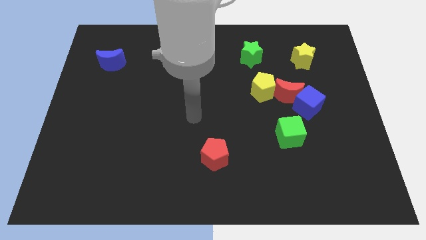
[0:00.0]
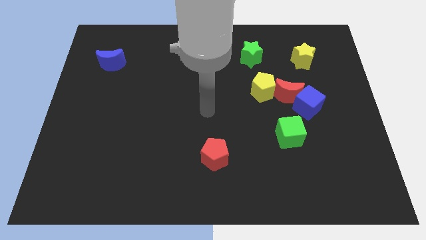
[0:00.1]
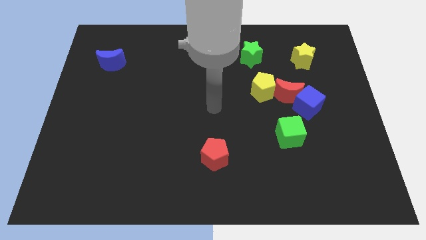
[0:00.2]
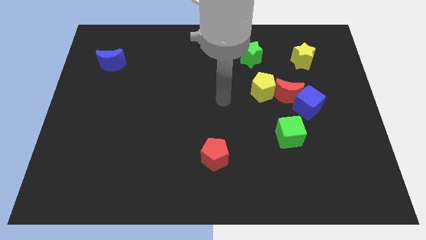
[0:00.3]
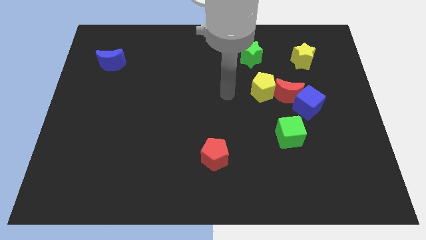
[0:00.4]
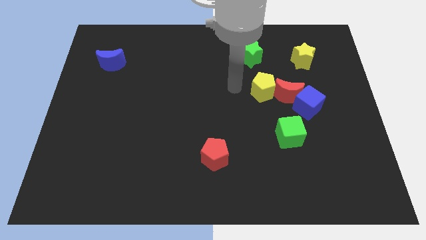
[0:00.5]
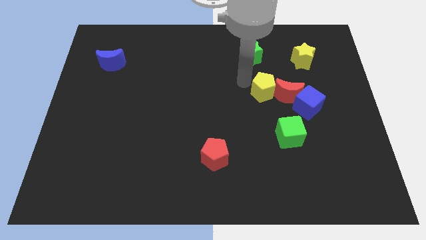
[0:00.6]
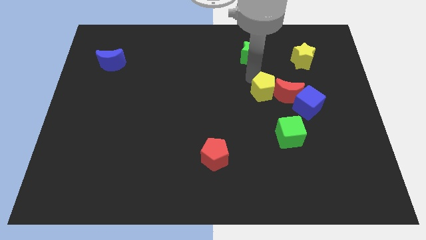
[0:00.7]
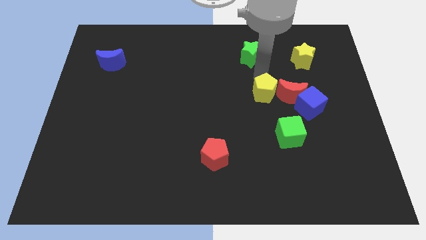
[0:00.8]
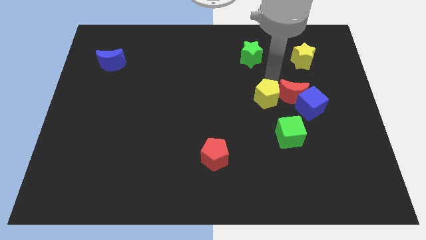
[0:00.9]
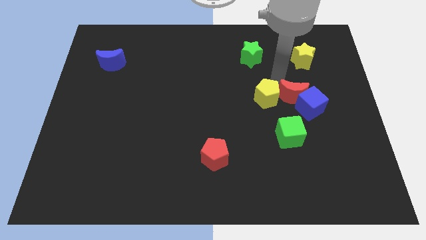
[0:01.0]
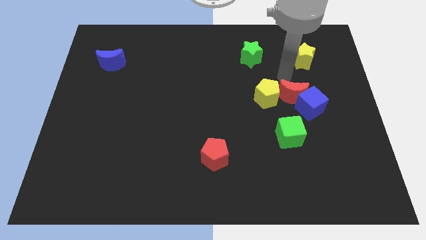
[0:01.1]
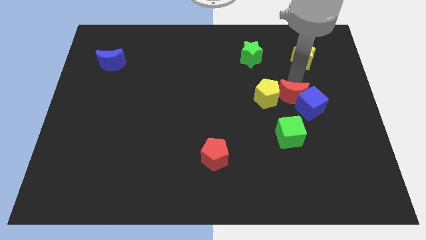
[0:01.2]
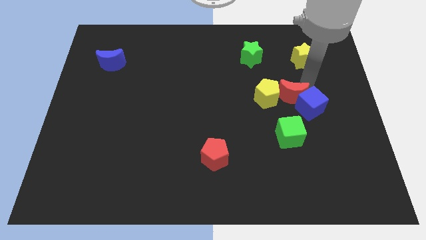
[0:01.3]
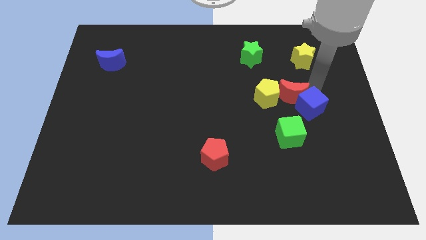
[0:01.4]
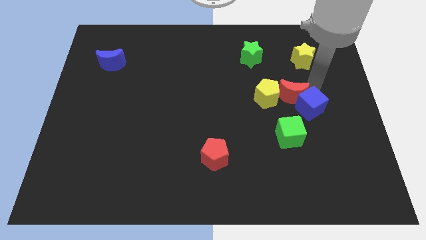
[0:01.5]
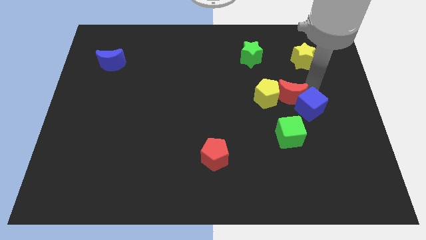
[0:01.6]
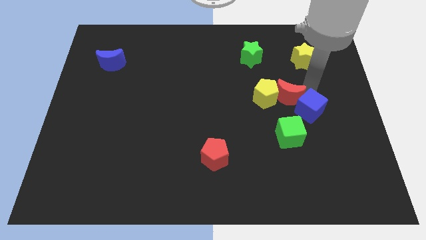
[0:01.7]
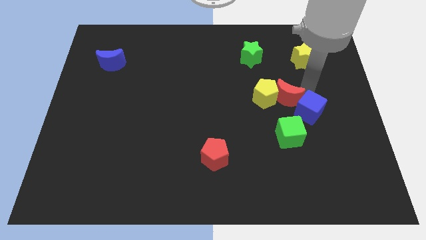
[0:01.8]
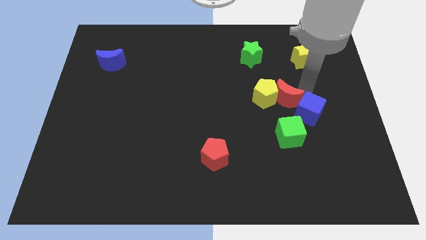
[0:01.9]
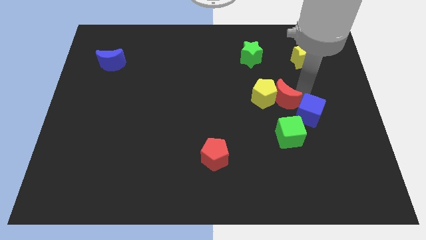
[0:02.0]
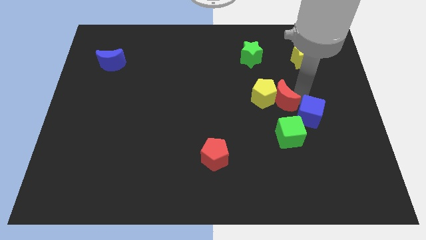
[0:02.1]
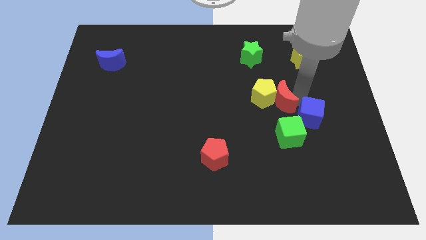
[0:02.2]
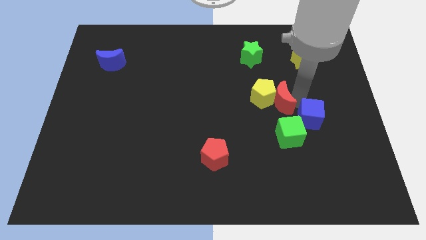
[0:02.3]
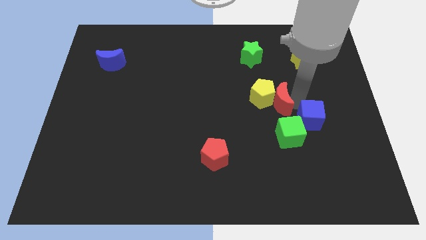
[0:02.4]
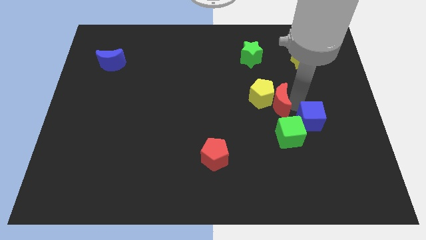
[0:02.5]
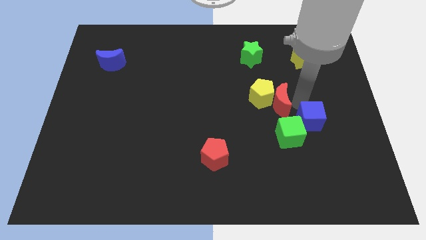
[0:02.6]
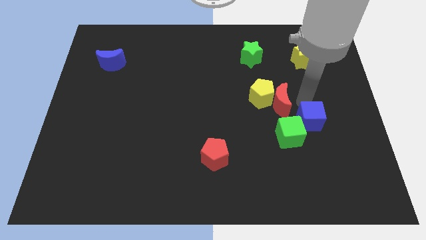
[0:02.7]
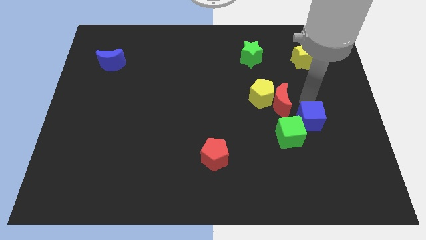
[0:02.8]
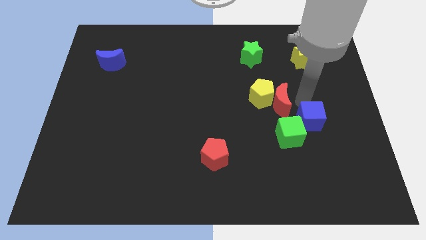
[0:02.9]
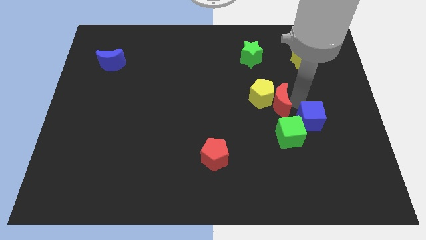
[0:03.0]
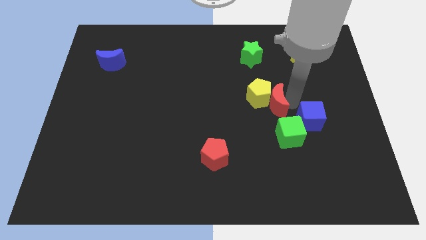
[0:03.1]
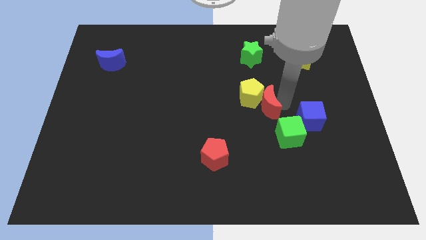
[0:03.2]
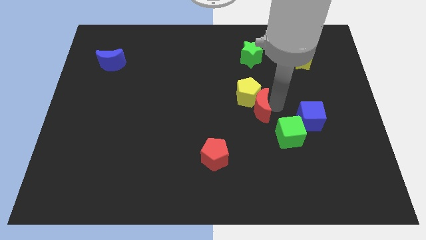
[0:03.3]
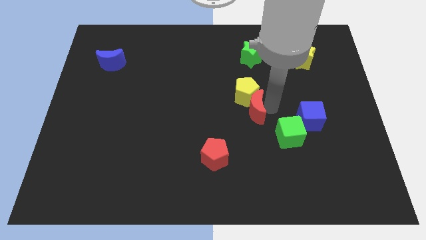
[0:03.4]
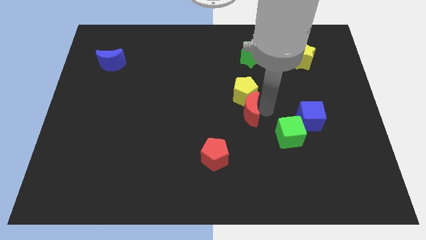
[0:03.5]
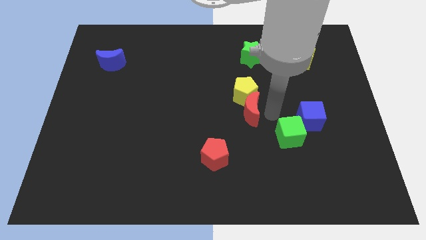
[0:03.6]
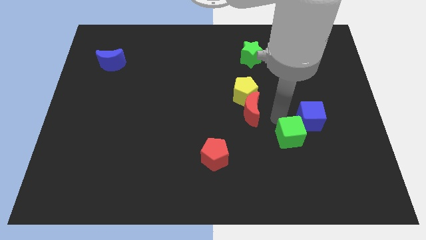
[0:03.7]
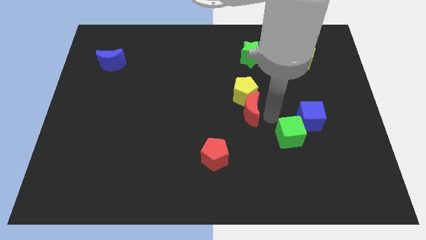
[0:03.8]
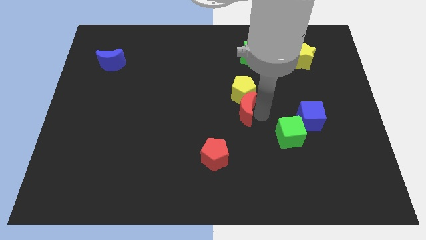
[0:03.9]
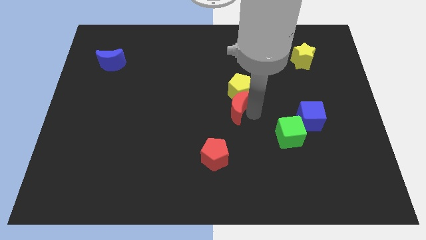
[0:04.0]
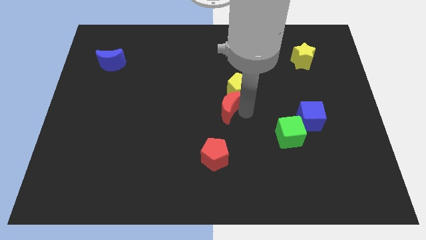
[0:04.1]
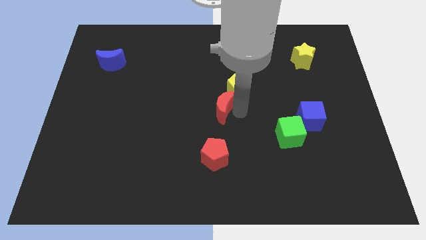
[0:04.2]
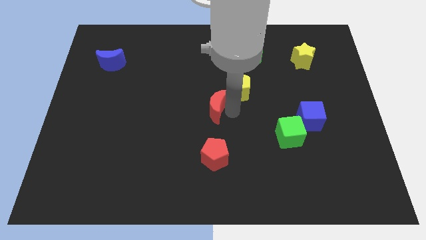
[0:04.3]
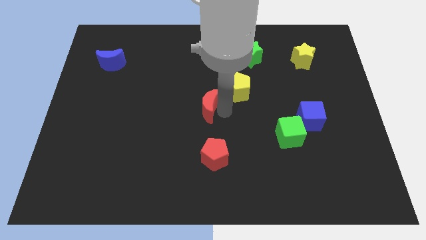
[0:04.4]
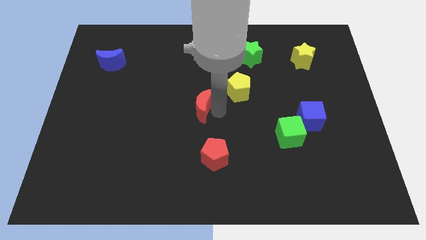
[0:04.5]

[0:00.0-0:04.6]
slide the red moon left

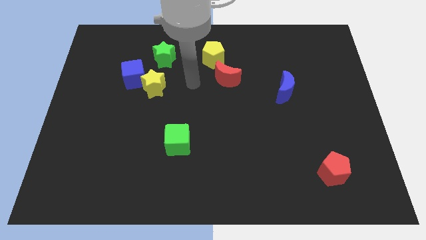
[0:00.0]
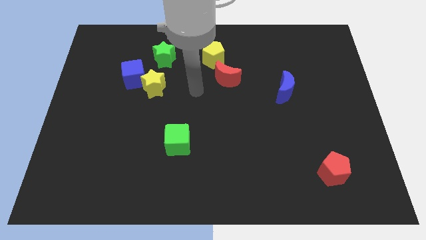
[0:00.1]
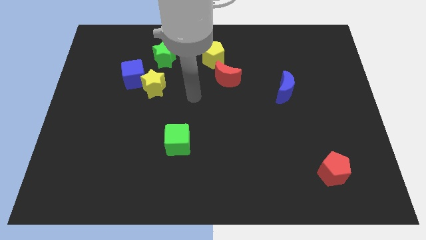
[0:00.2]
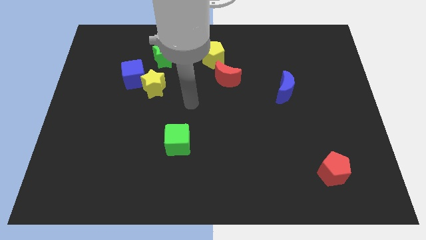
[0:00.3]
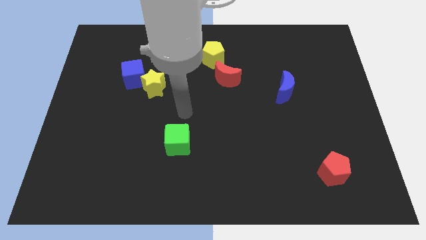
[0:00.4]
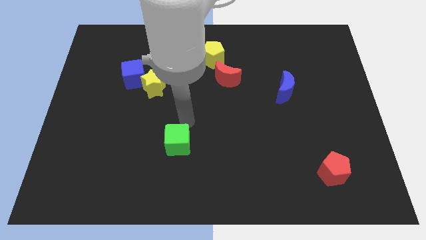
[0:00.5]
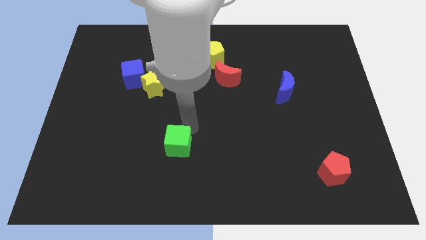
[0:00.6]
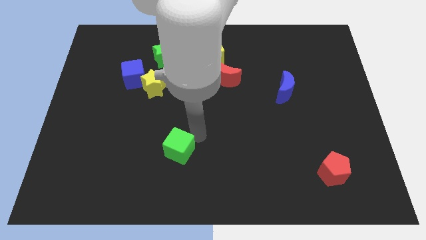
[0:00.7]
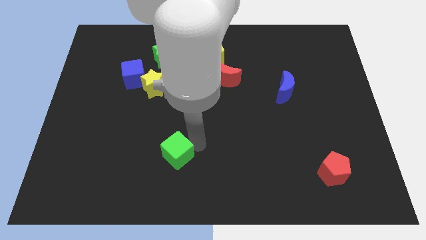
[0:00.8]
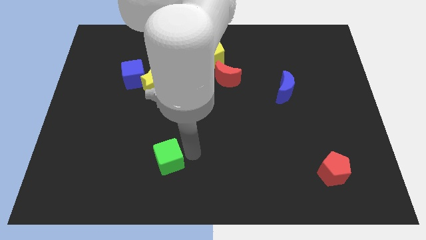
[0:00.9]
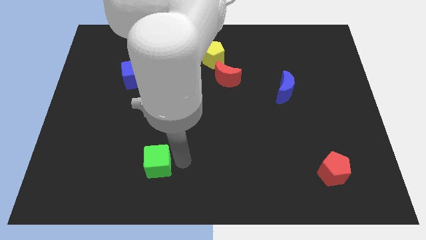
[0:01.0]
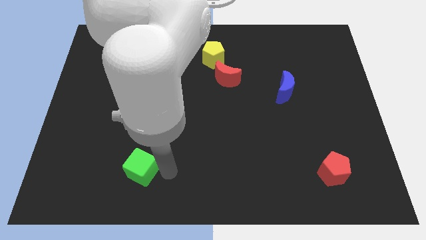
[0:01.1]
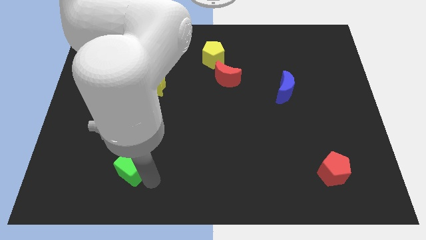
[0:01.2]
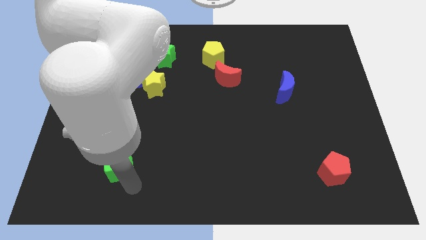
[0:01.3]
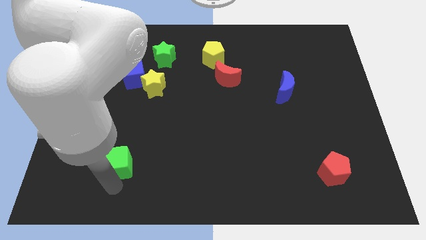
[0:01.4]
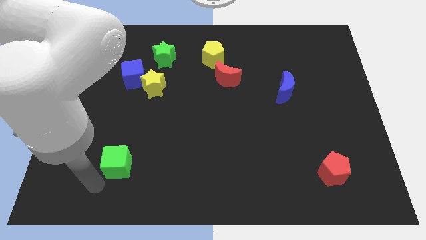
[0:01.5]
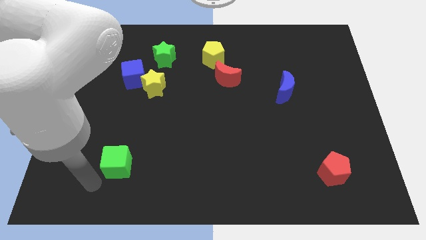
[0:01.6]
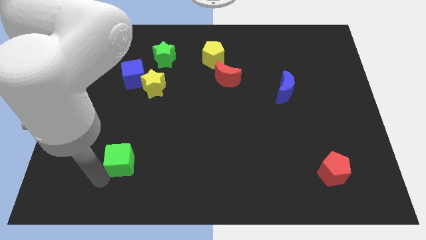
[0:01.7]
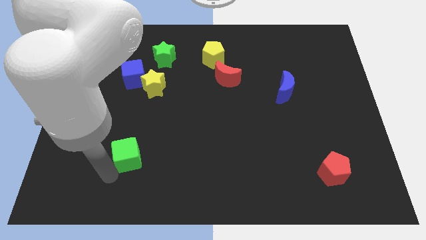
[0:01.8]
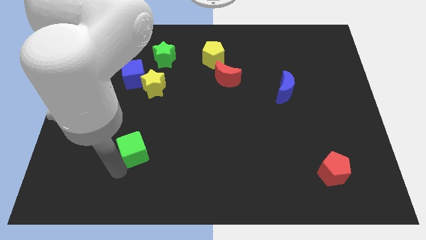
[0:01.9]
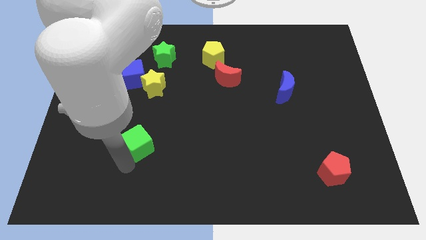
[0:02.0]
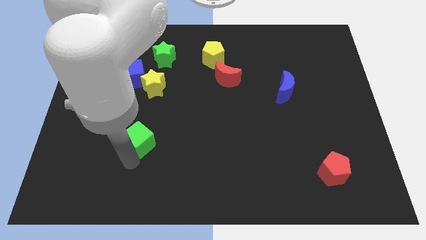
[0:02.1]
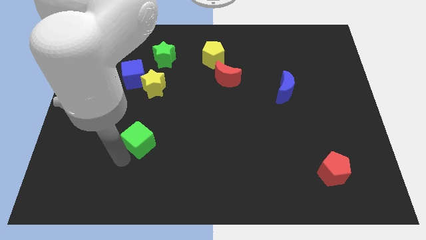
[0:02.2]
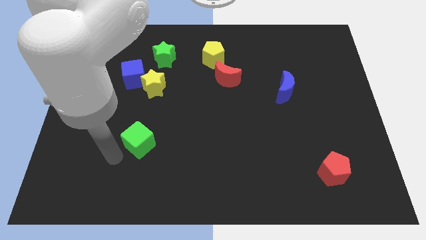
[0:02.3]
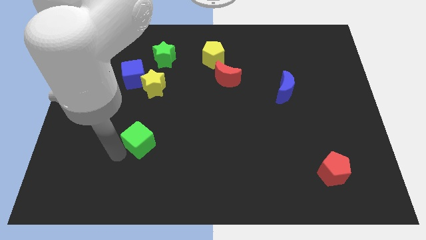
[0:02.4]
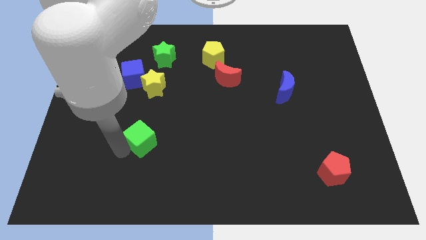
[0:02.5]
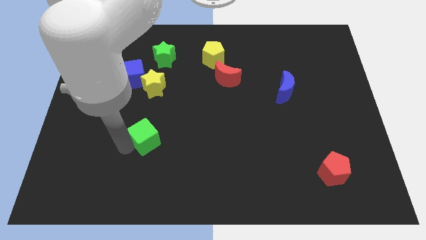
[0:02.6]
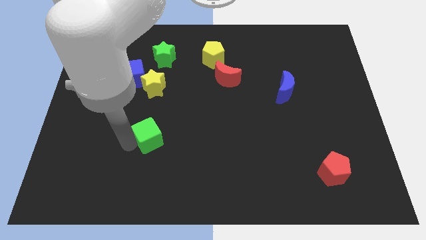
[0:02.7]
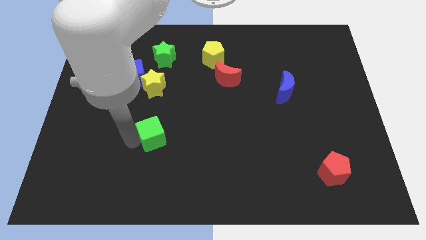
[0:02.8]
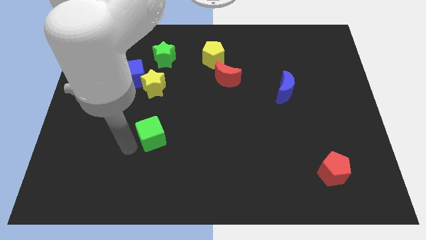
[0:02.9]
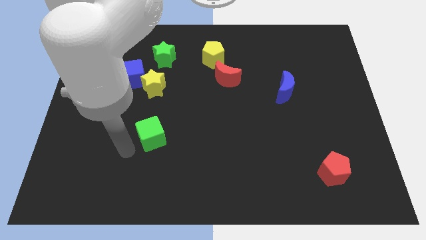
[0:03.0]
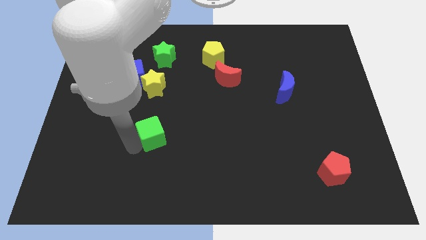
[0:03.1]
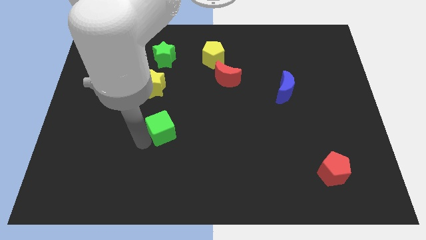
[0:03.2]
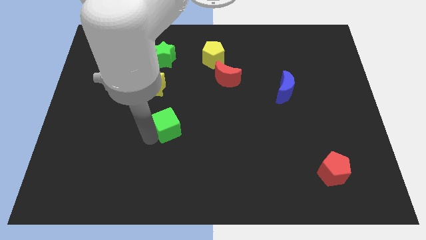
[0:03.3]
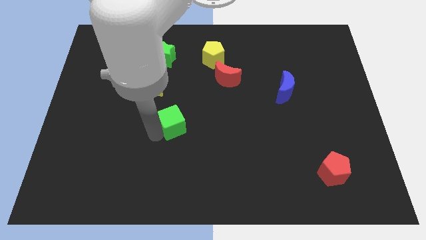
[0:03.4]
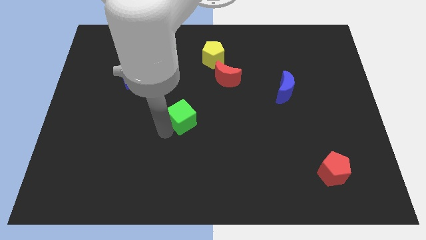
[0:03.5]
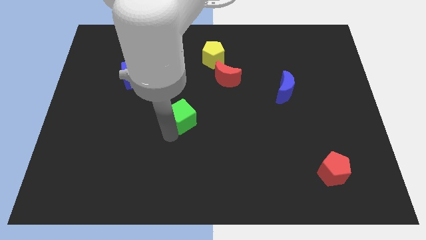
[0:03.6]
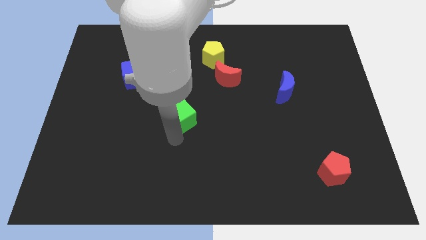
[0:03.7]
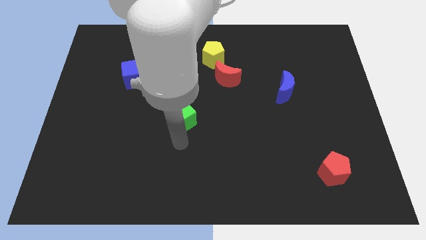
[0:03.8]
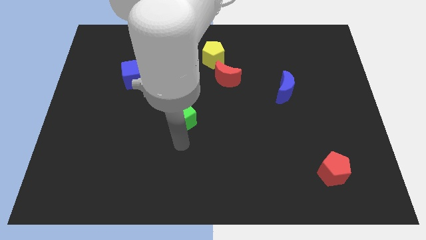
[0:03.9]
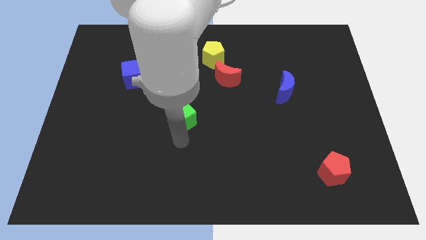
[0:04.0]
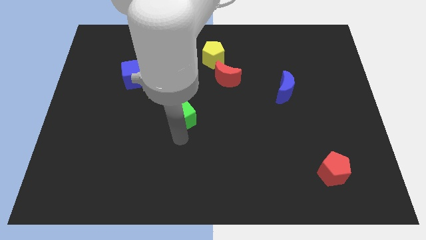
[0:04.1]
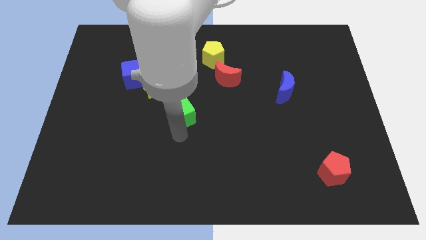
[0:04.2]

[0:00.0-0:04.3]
move the green cube somewhat up
